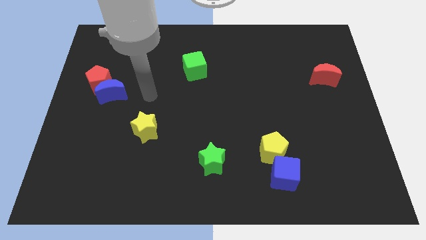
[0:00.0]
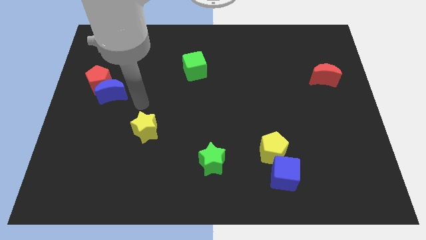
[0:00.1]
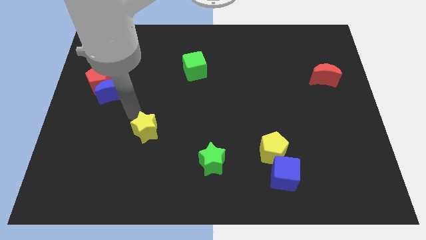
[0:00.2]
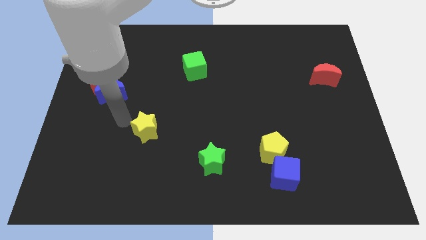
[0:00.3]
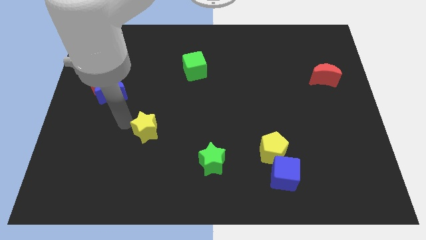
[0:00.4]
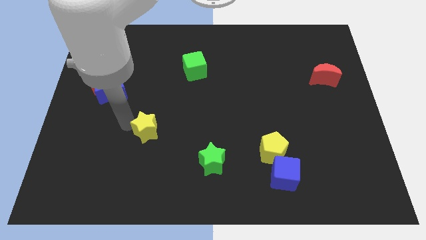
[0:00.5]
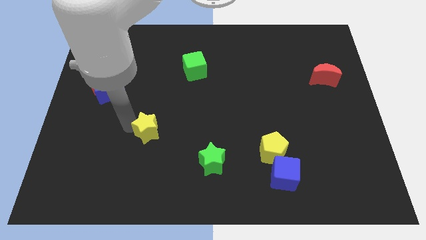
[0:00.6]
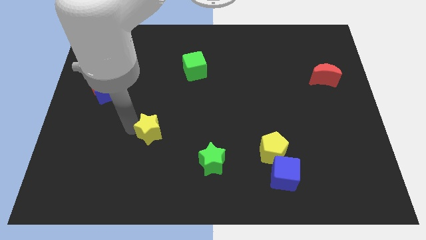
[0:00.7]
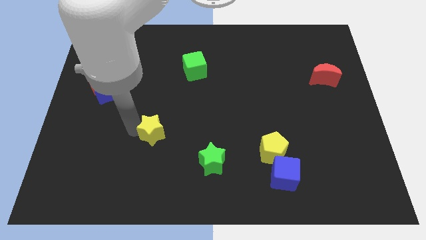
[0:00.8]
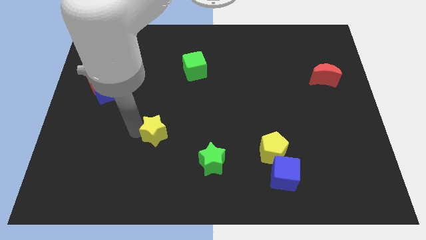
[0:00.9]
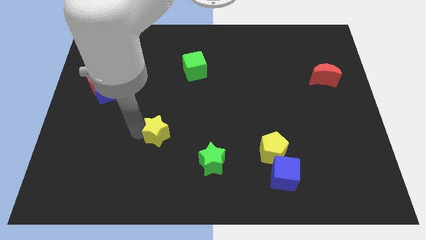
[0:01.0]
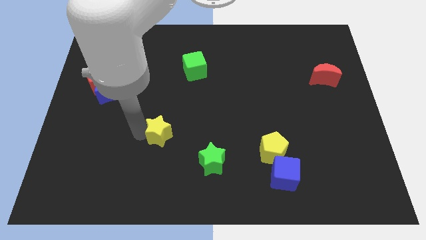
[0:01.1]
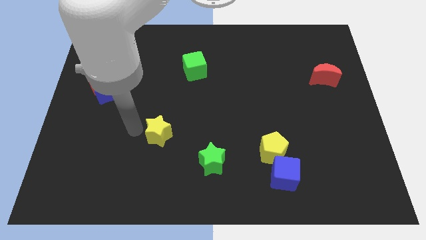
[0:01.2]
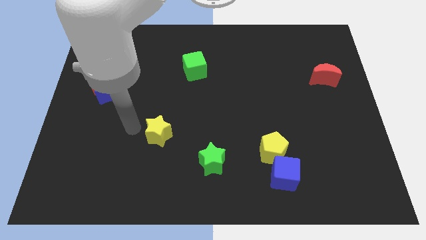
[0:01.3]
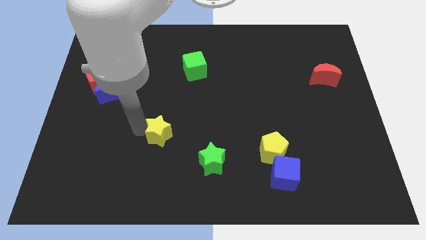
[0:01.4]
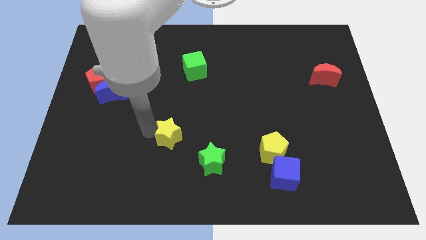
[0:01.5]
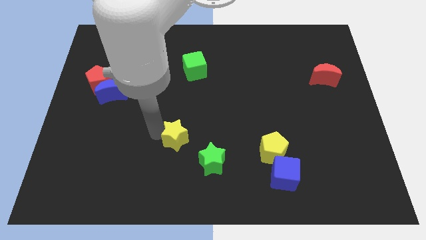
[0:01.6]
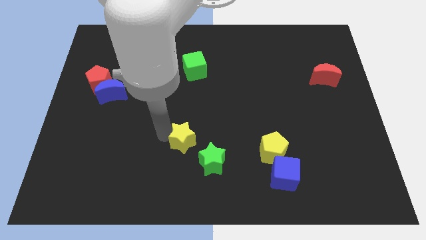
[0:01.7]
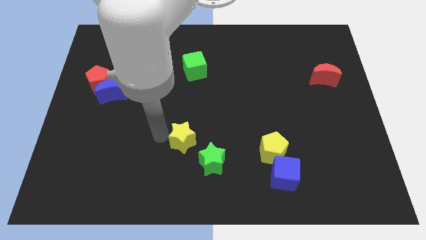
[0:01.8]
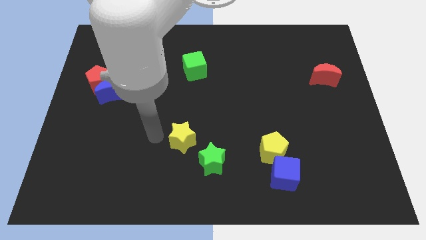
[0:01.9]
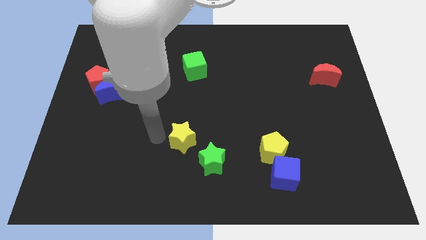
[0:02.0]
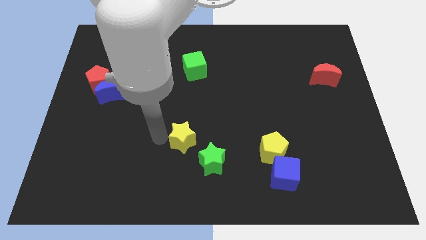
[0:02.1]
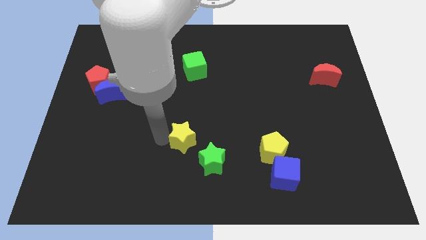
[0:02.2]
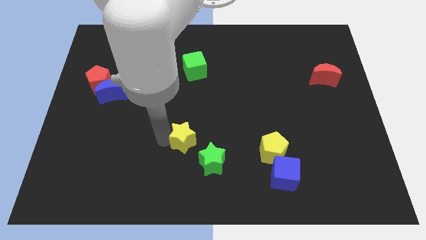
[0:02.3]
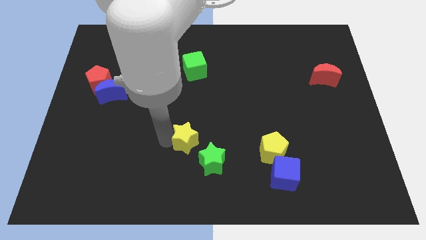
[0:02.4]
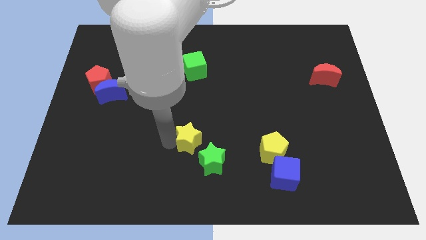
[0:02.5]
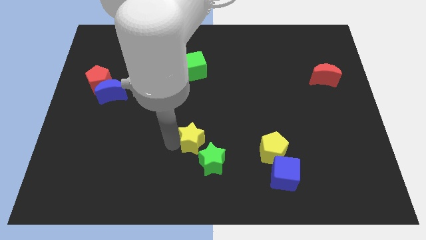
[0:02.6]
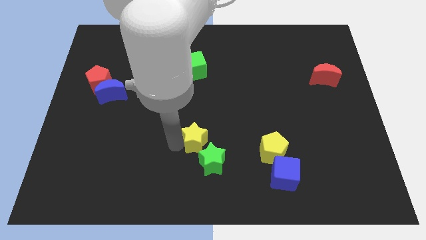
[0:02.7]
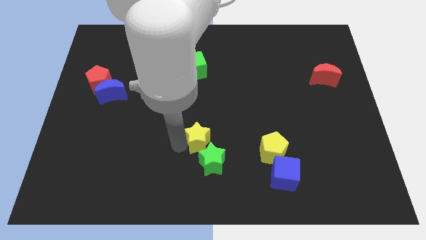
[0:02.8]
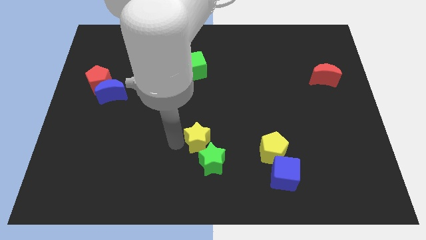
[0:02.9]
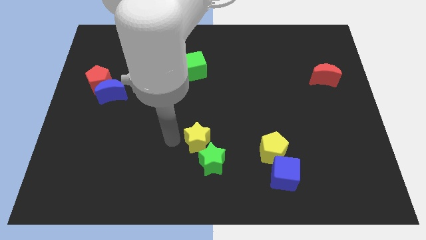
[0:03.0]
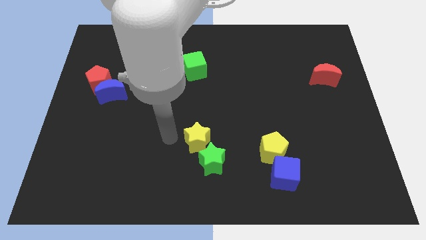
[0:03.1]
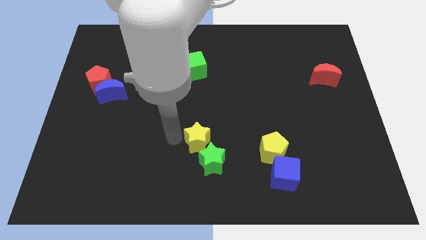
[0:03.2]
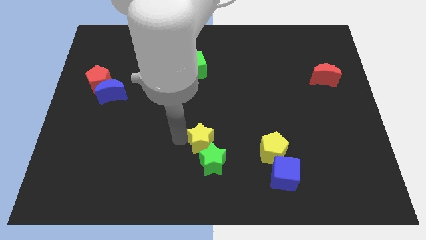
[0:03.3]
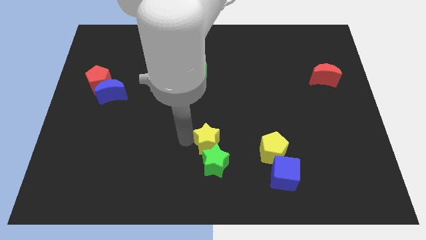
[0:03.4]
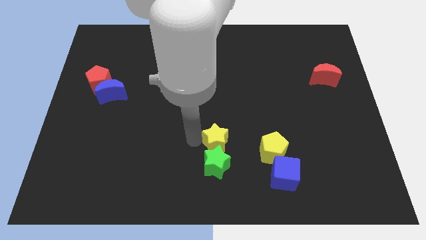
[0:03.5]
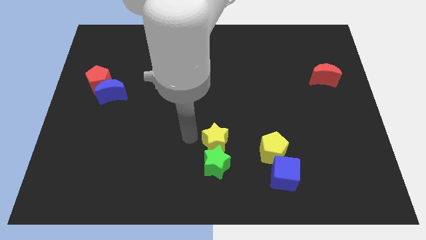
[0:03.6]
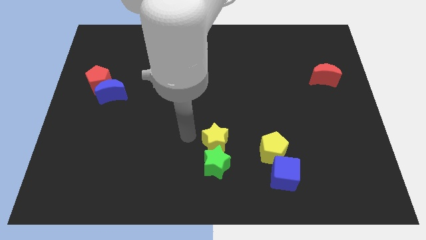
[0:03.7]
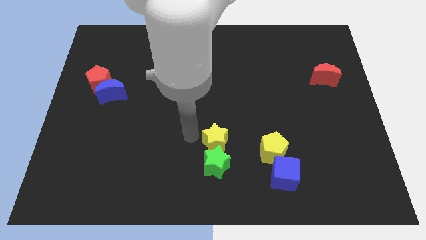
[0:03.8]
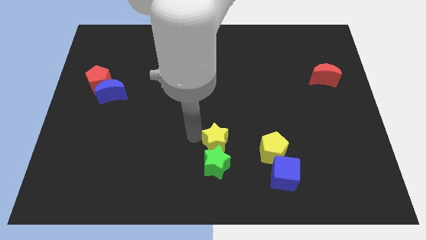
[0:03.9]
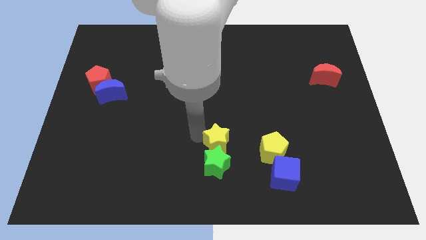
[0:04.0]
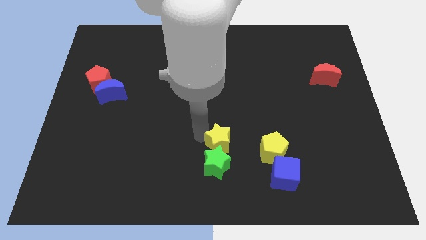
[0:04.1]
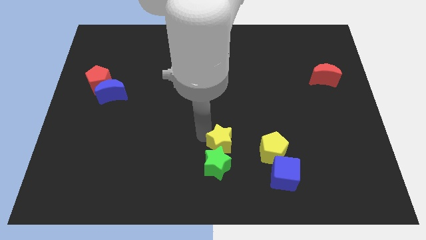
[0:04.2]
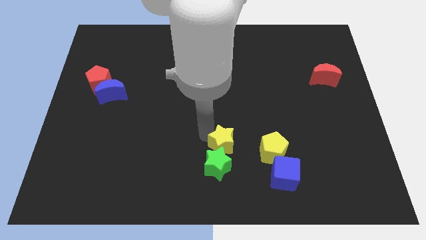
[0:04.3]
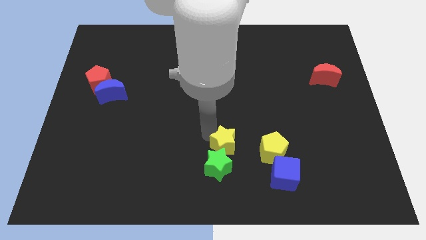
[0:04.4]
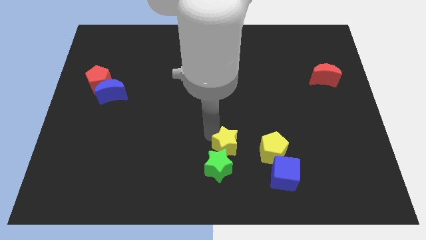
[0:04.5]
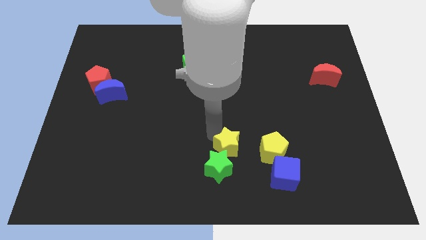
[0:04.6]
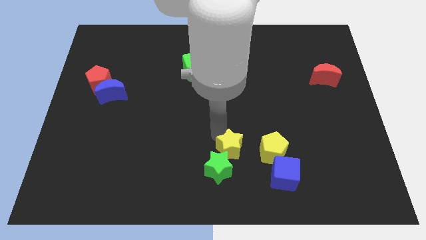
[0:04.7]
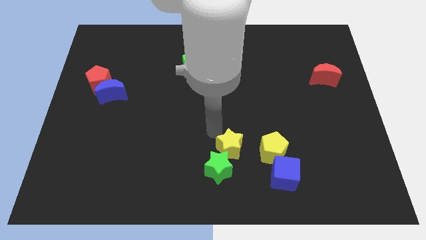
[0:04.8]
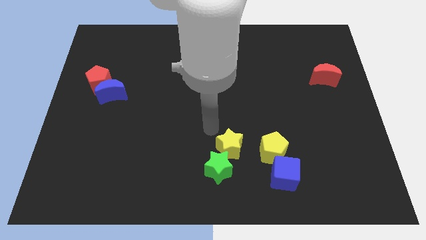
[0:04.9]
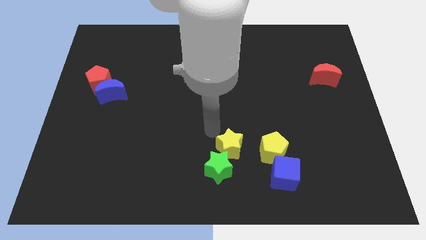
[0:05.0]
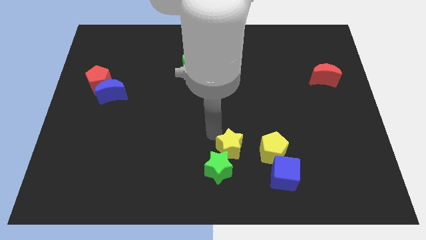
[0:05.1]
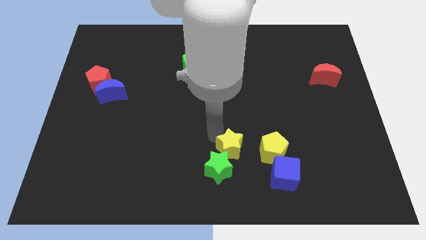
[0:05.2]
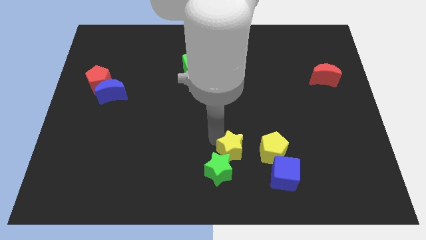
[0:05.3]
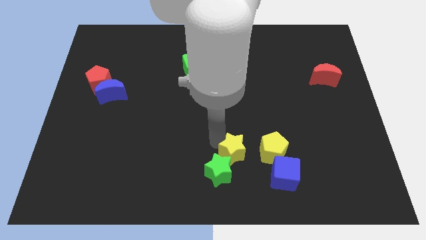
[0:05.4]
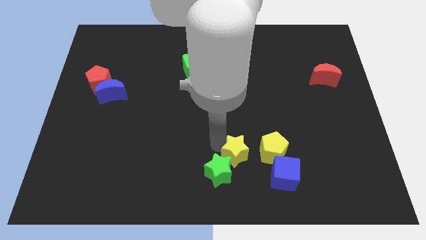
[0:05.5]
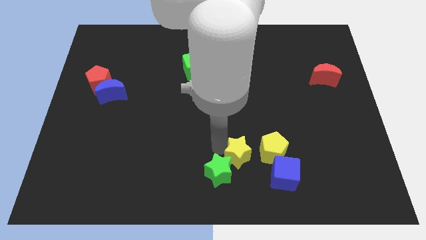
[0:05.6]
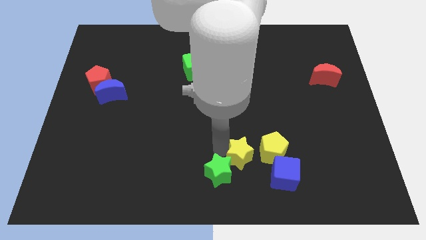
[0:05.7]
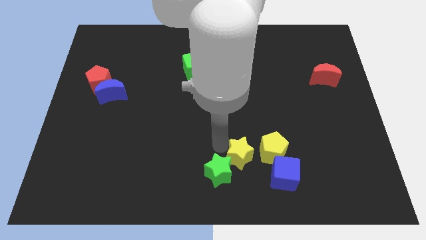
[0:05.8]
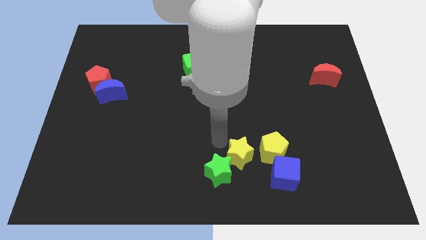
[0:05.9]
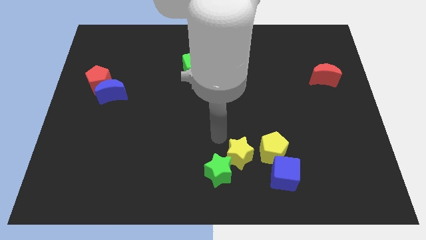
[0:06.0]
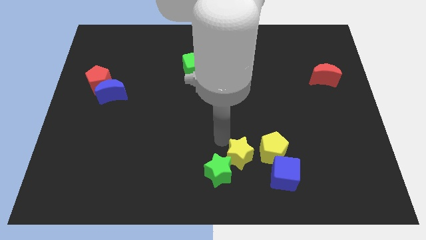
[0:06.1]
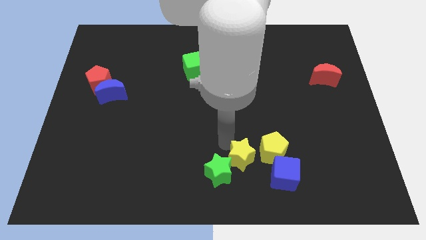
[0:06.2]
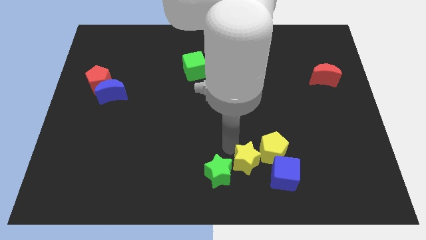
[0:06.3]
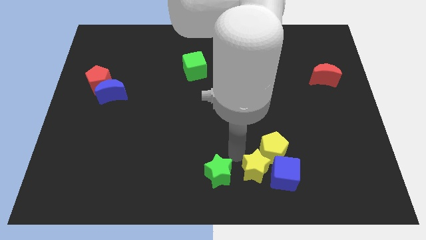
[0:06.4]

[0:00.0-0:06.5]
move the yellow star towards the blue cube
